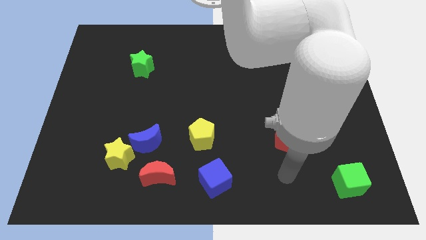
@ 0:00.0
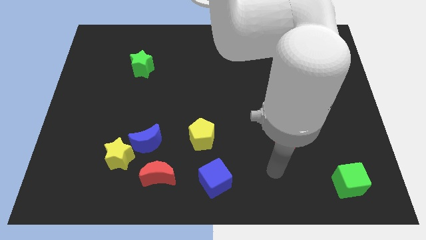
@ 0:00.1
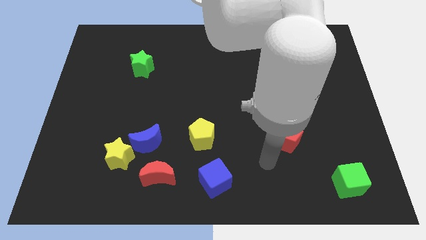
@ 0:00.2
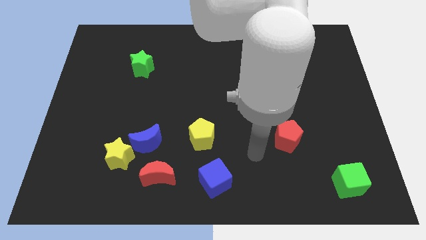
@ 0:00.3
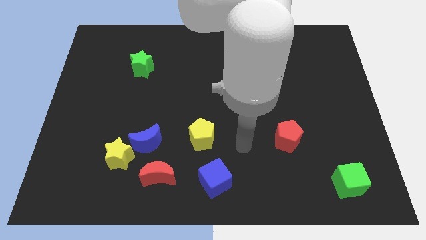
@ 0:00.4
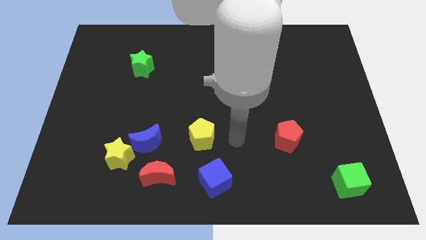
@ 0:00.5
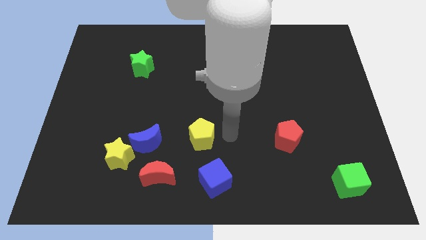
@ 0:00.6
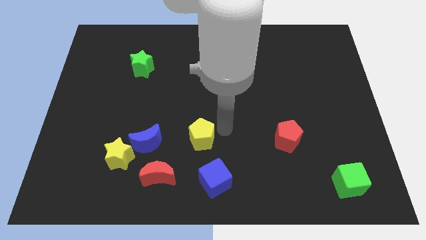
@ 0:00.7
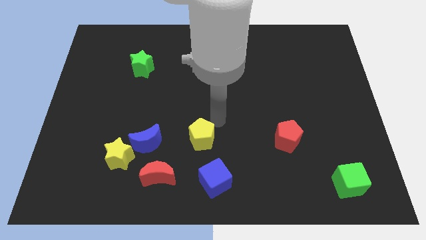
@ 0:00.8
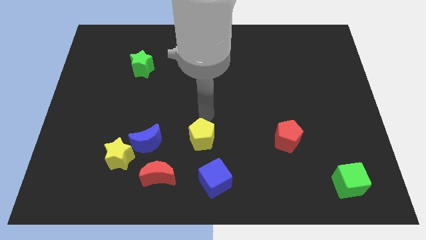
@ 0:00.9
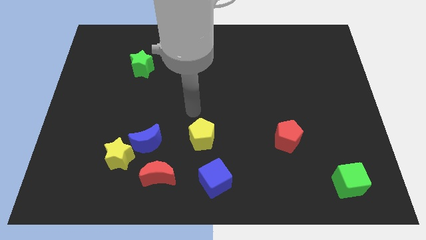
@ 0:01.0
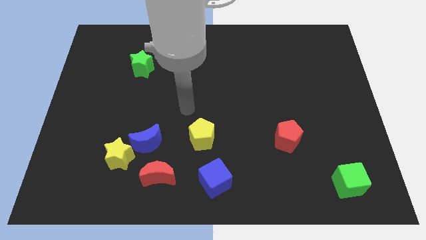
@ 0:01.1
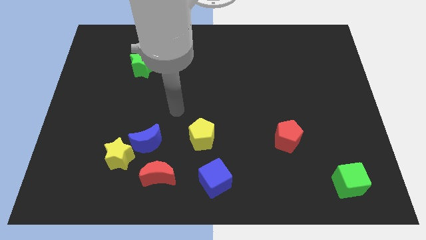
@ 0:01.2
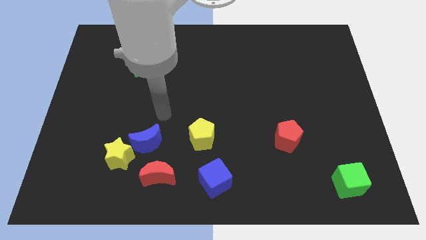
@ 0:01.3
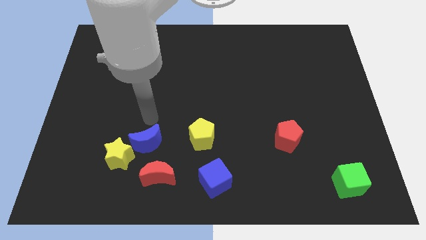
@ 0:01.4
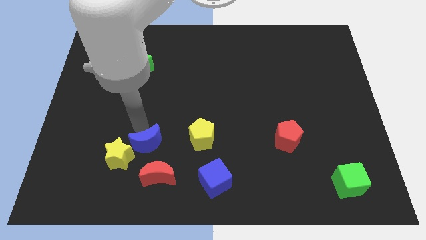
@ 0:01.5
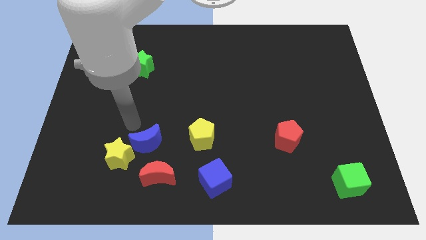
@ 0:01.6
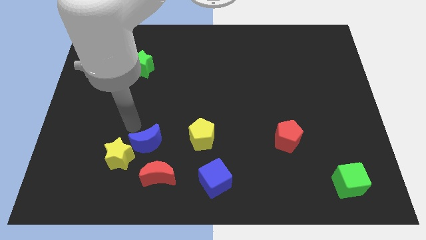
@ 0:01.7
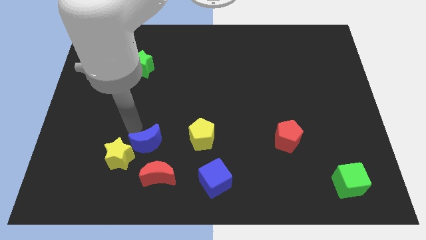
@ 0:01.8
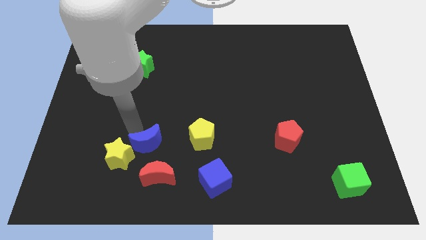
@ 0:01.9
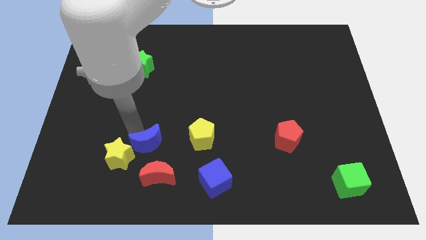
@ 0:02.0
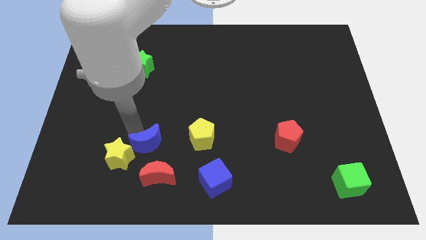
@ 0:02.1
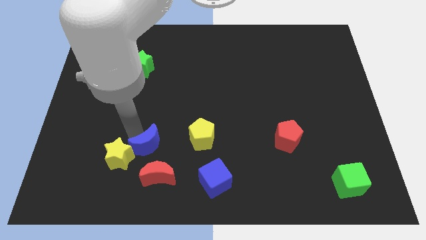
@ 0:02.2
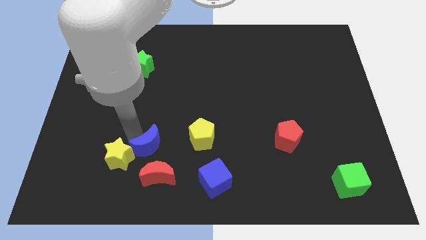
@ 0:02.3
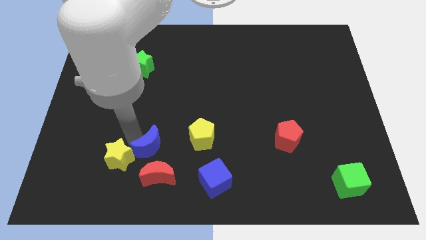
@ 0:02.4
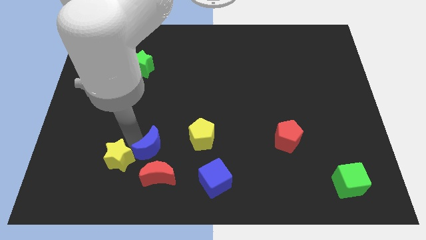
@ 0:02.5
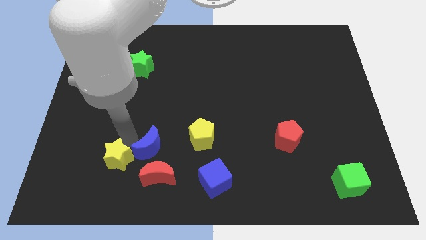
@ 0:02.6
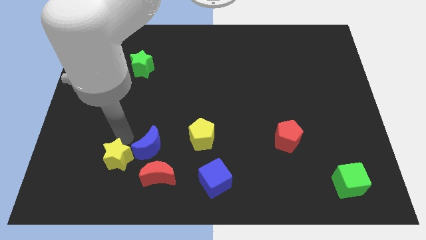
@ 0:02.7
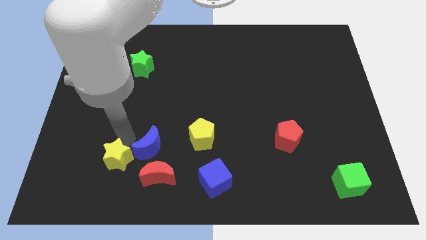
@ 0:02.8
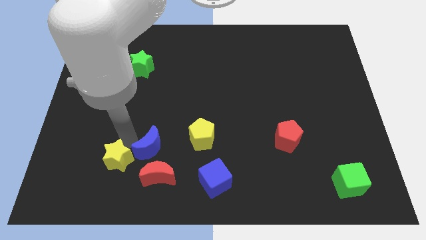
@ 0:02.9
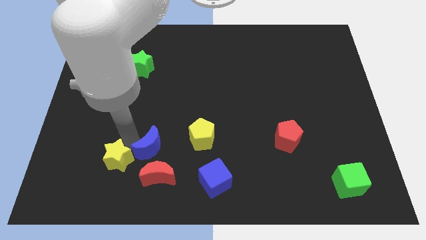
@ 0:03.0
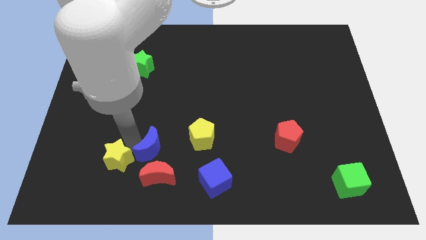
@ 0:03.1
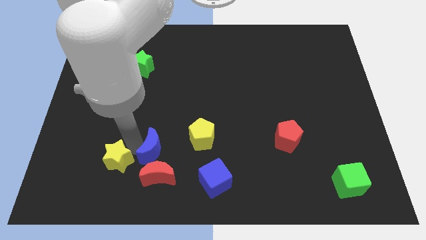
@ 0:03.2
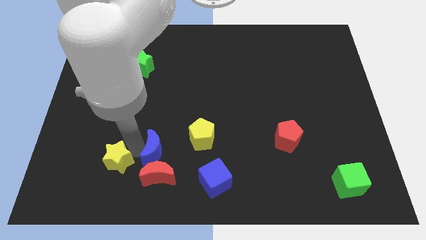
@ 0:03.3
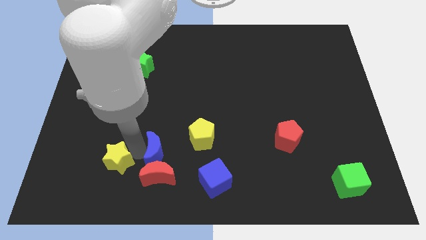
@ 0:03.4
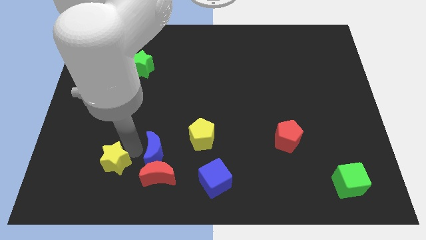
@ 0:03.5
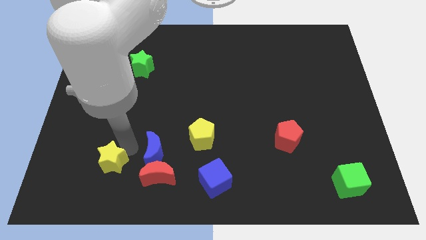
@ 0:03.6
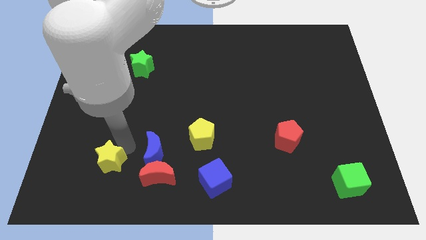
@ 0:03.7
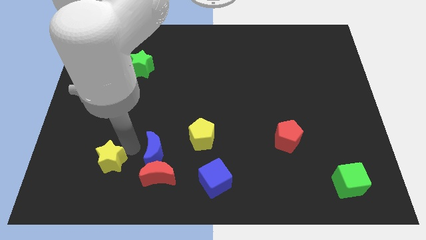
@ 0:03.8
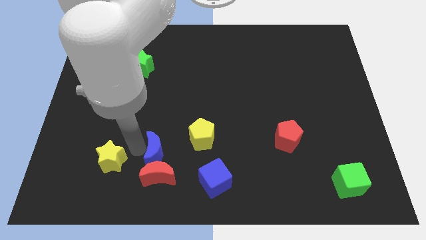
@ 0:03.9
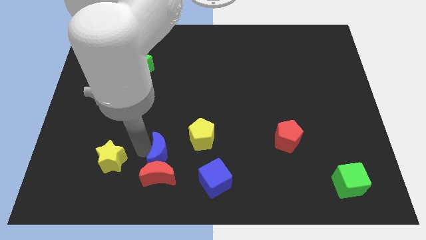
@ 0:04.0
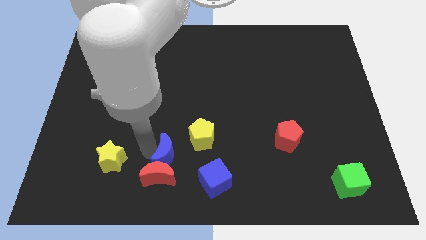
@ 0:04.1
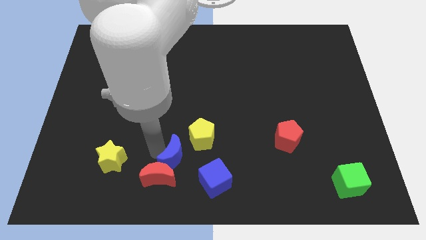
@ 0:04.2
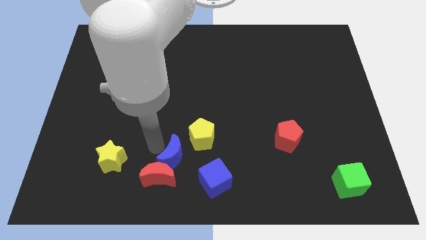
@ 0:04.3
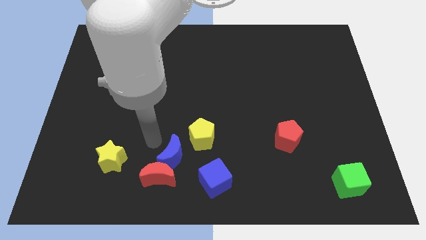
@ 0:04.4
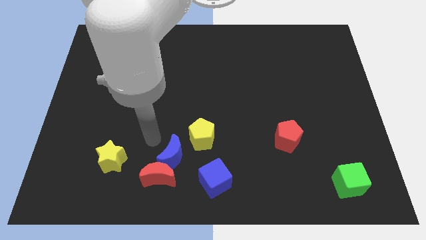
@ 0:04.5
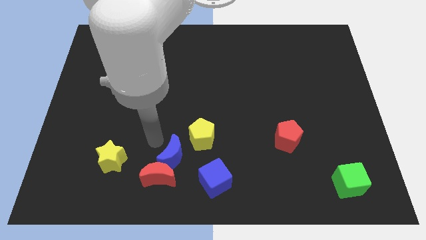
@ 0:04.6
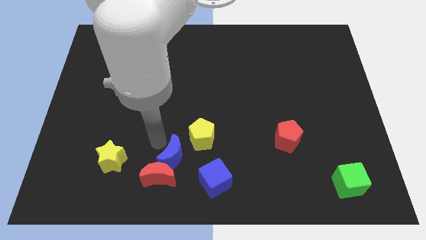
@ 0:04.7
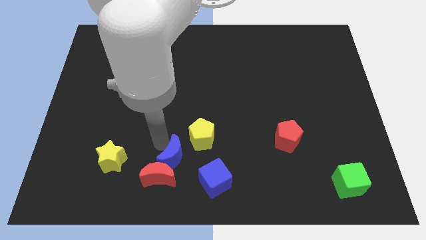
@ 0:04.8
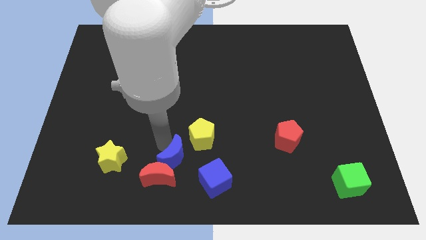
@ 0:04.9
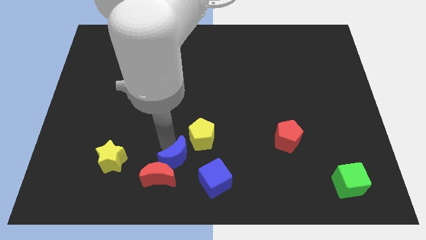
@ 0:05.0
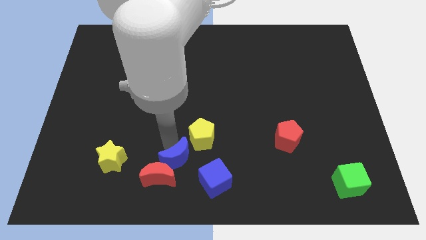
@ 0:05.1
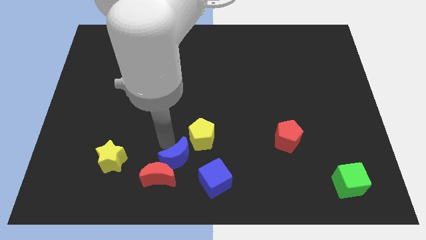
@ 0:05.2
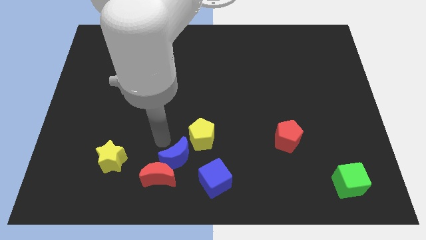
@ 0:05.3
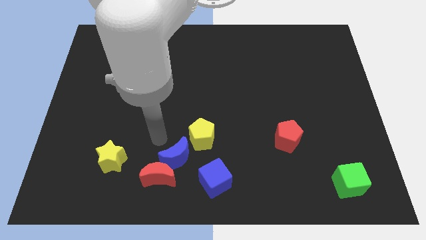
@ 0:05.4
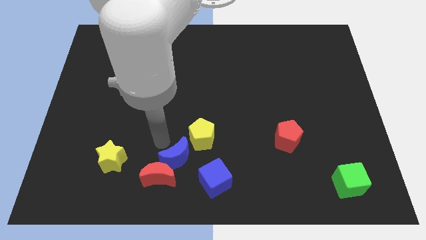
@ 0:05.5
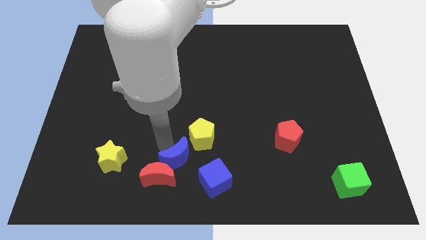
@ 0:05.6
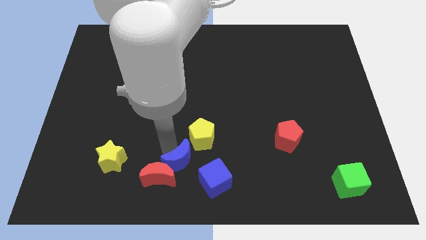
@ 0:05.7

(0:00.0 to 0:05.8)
push the blue moon to the bottom side

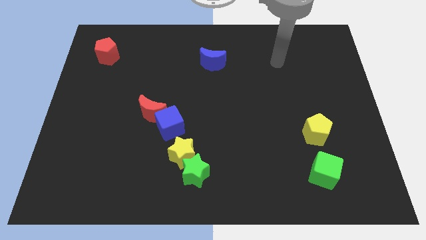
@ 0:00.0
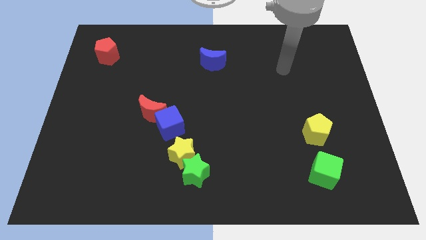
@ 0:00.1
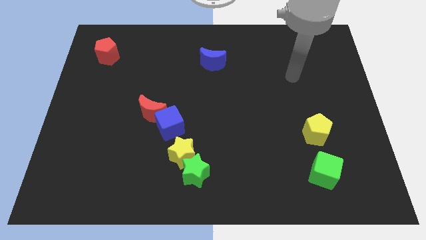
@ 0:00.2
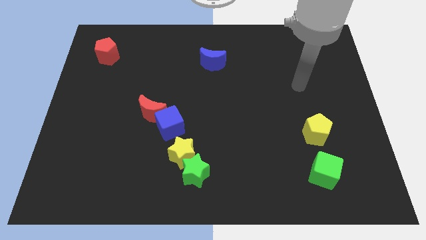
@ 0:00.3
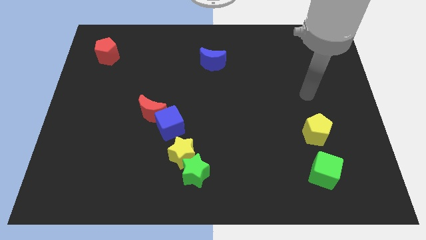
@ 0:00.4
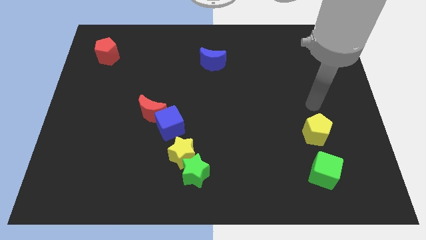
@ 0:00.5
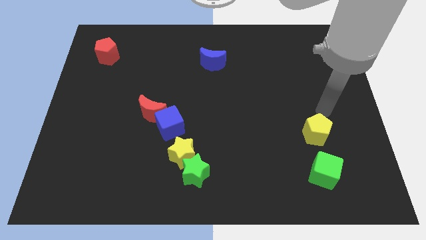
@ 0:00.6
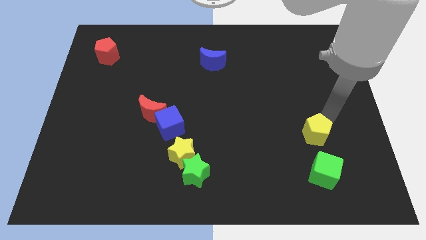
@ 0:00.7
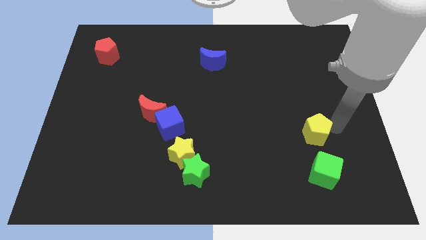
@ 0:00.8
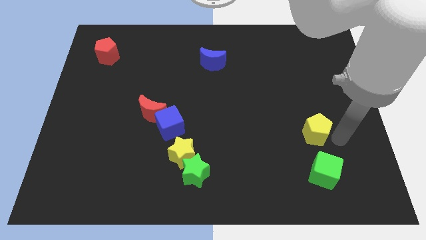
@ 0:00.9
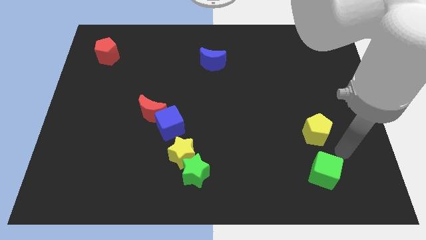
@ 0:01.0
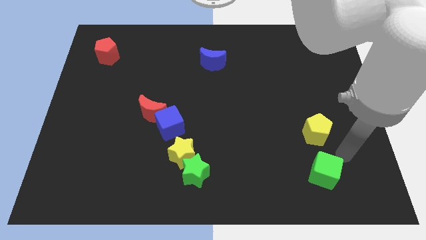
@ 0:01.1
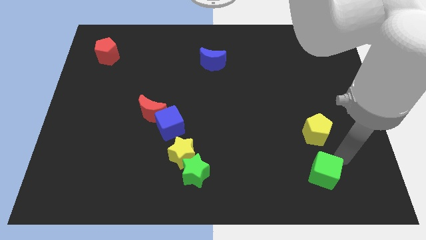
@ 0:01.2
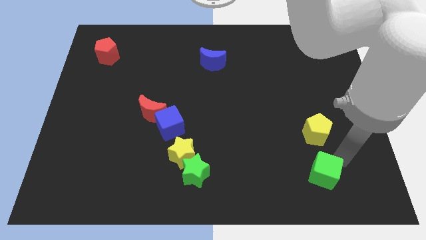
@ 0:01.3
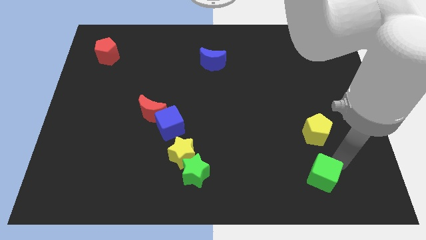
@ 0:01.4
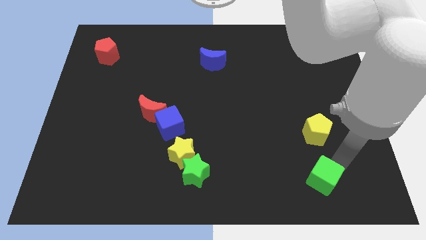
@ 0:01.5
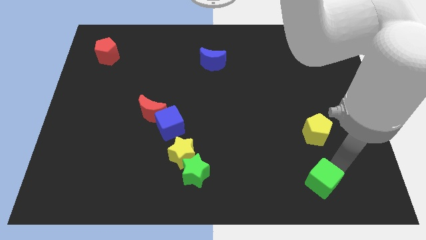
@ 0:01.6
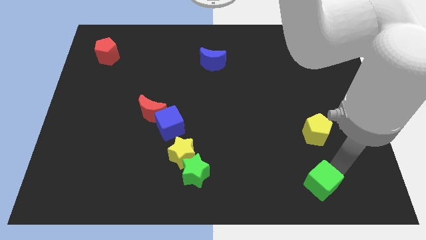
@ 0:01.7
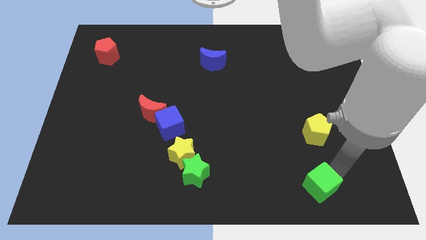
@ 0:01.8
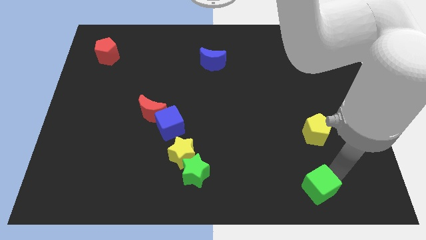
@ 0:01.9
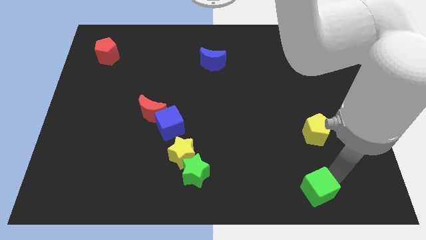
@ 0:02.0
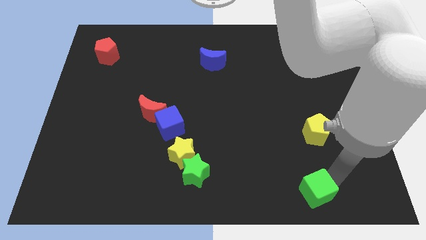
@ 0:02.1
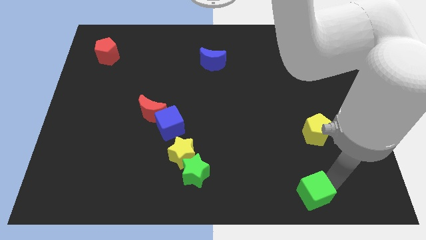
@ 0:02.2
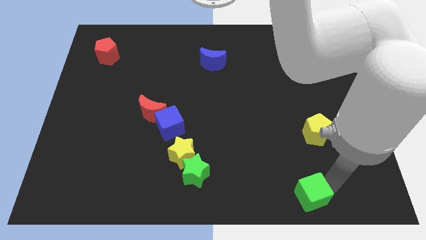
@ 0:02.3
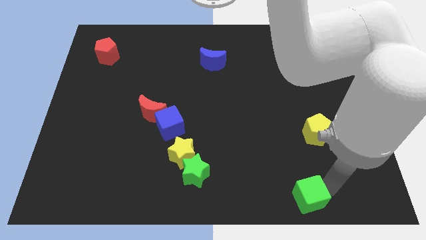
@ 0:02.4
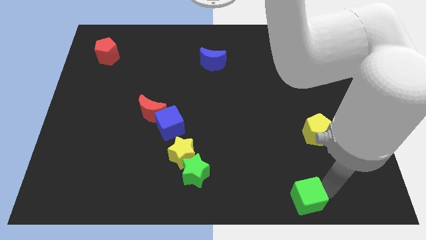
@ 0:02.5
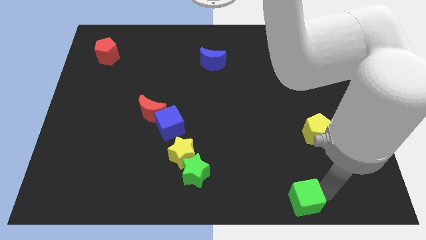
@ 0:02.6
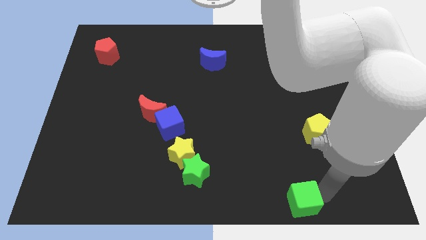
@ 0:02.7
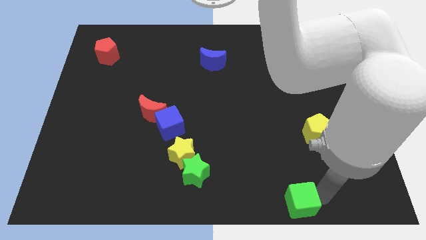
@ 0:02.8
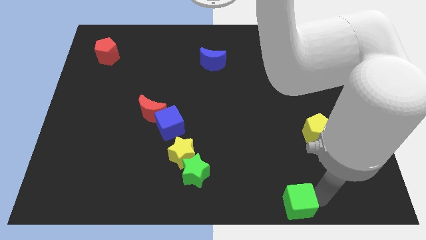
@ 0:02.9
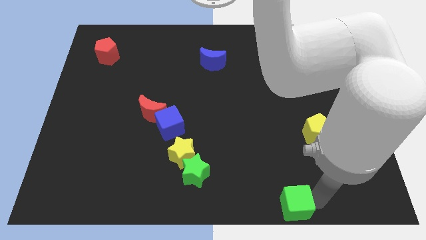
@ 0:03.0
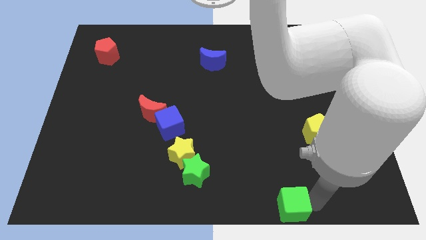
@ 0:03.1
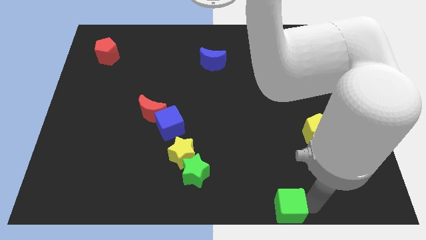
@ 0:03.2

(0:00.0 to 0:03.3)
put the green cube to the bottom side
